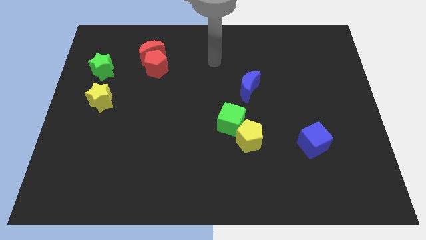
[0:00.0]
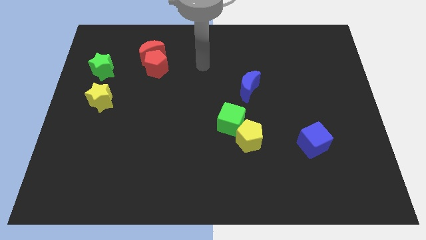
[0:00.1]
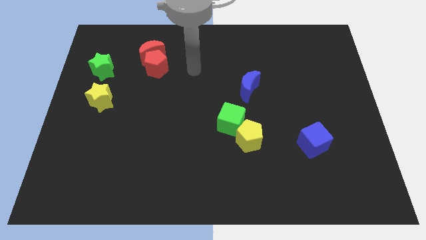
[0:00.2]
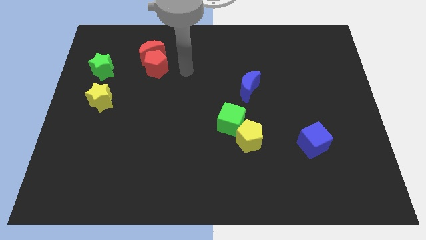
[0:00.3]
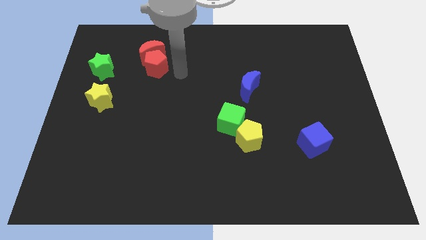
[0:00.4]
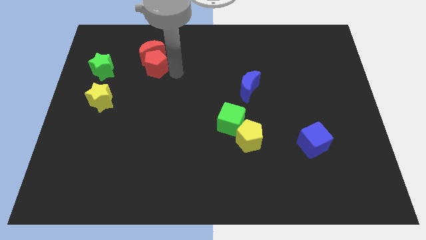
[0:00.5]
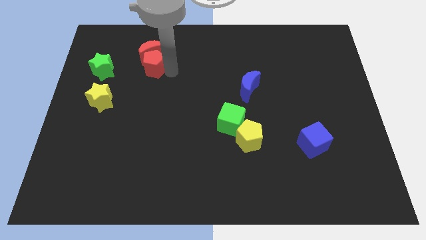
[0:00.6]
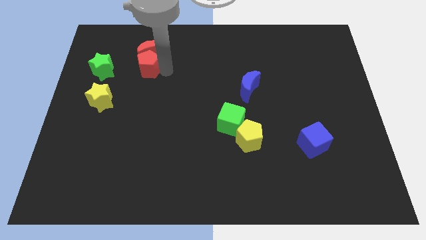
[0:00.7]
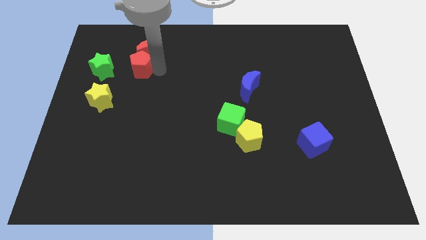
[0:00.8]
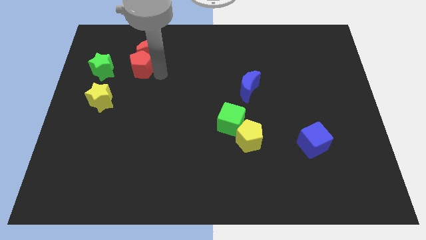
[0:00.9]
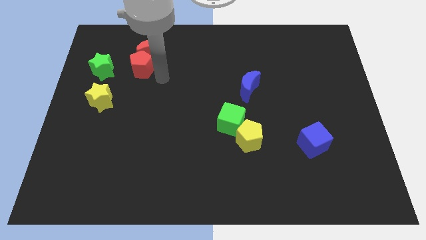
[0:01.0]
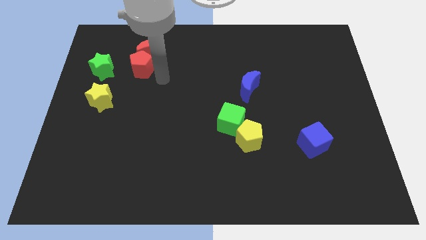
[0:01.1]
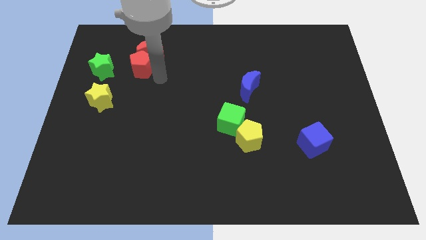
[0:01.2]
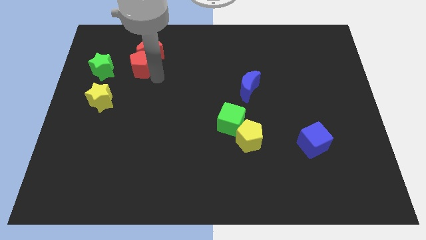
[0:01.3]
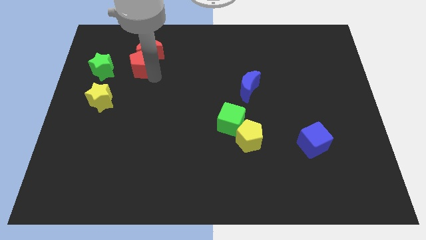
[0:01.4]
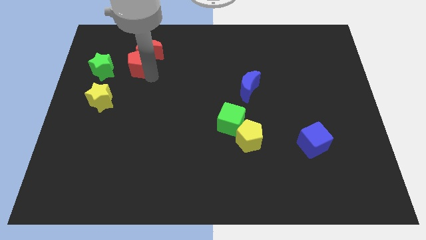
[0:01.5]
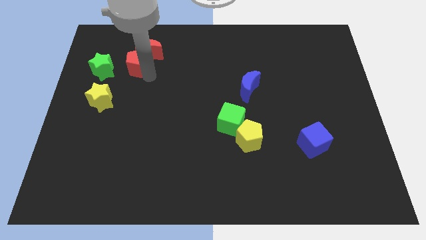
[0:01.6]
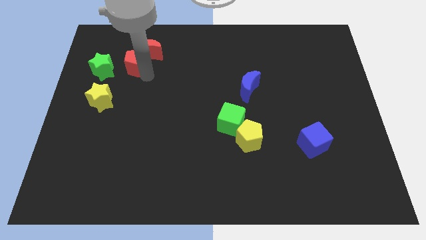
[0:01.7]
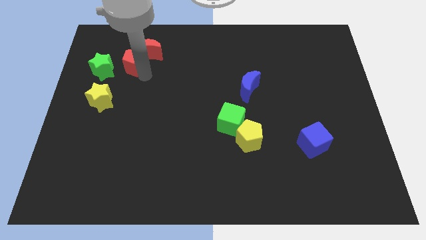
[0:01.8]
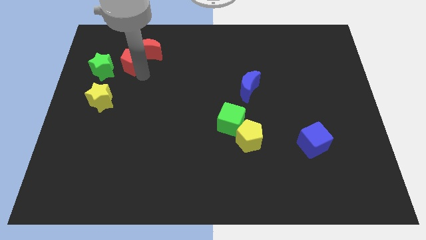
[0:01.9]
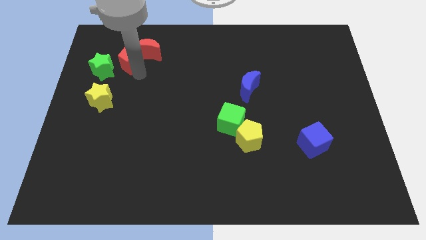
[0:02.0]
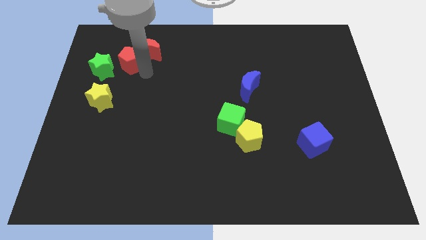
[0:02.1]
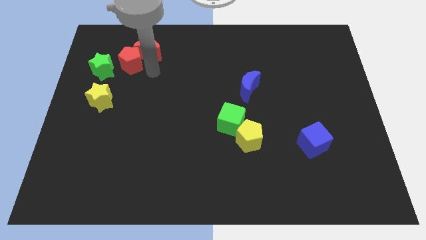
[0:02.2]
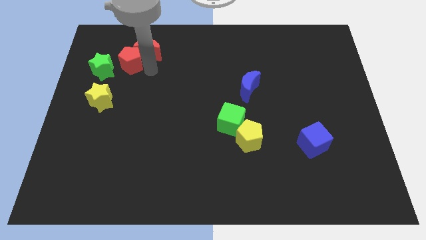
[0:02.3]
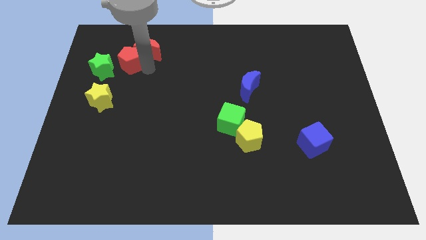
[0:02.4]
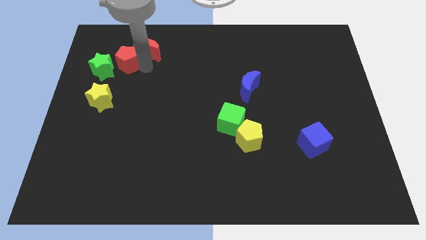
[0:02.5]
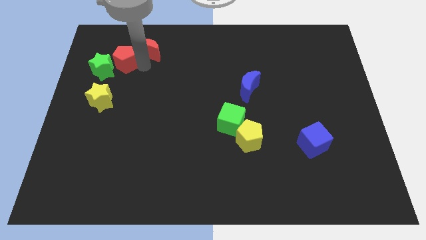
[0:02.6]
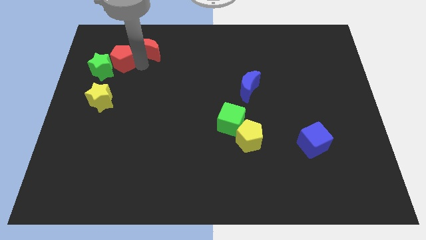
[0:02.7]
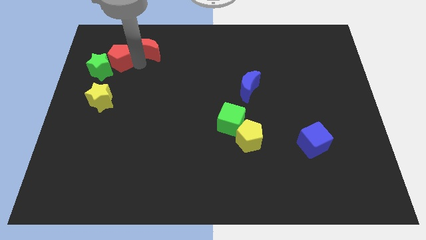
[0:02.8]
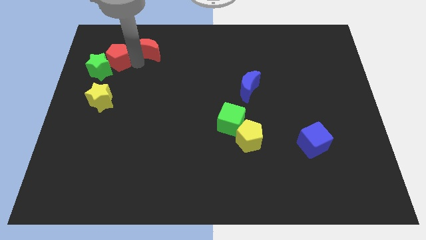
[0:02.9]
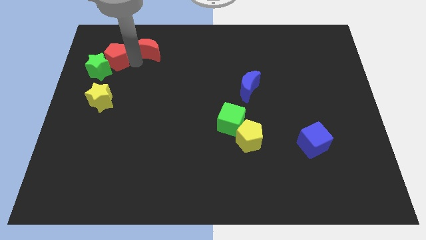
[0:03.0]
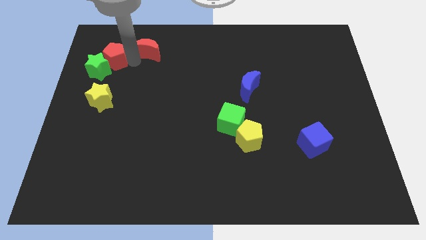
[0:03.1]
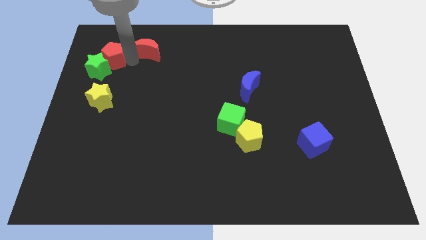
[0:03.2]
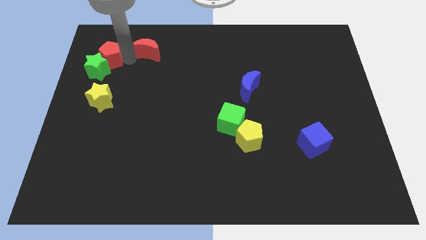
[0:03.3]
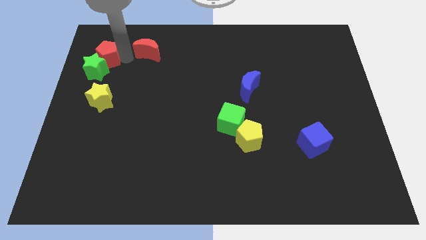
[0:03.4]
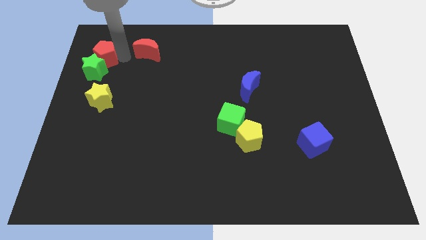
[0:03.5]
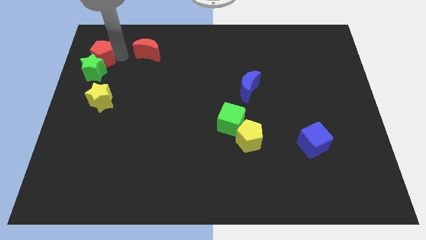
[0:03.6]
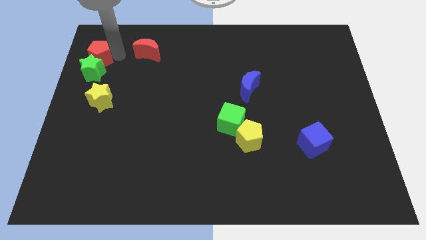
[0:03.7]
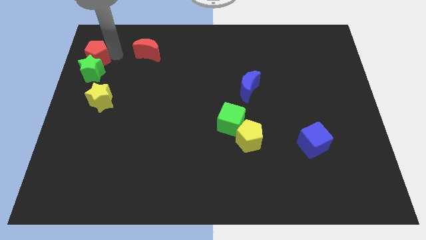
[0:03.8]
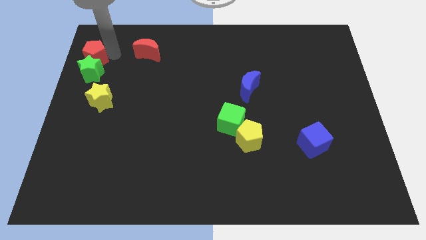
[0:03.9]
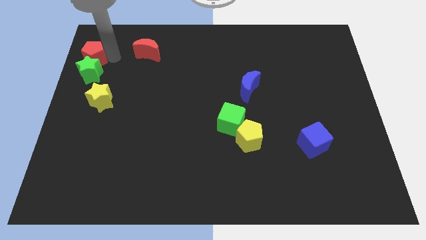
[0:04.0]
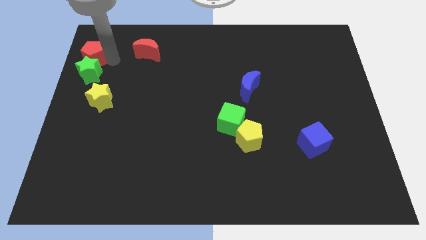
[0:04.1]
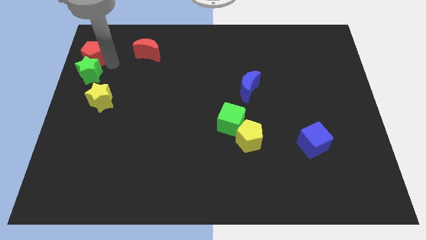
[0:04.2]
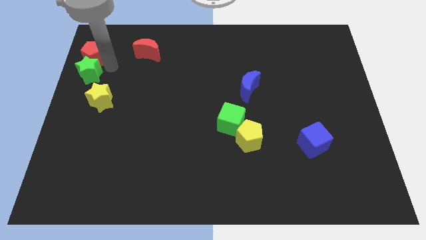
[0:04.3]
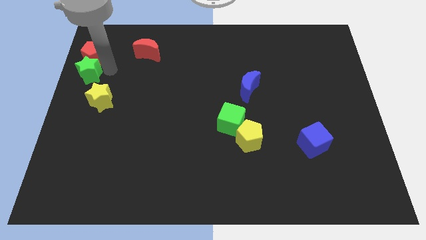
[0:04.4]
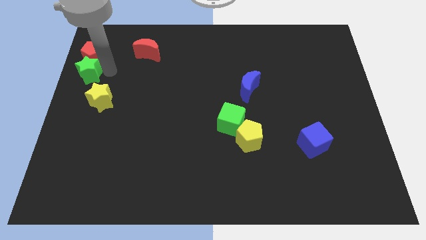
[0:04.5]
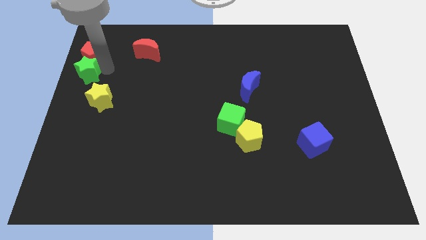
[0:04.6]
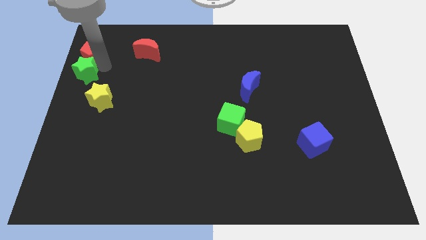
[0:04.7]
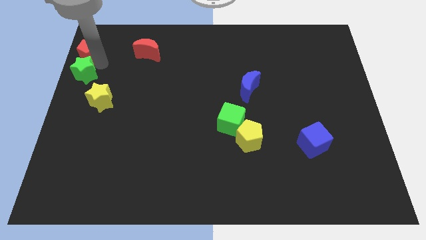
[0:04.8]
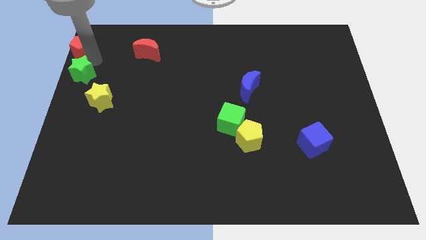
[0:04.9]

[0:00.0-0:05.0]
move the red pentagon to the top left
